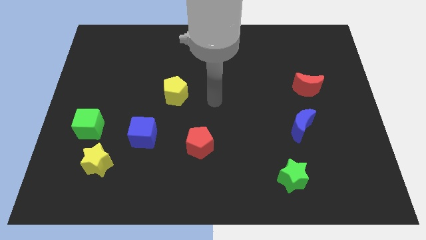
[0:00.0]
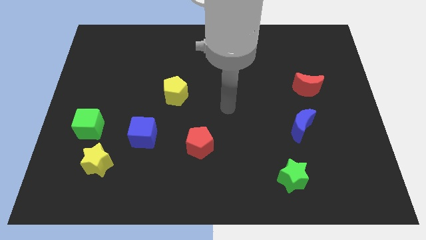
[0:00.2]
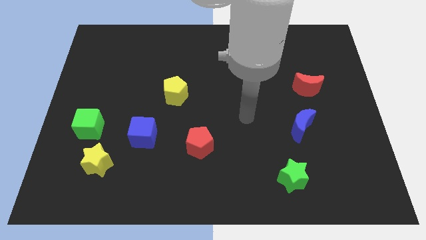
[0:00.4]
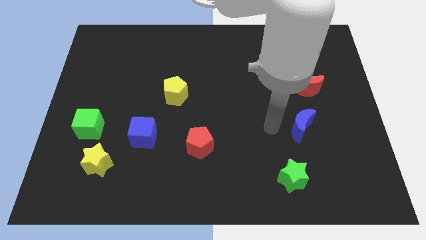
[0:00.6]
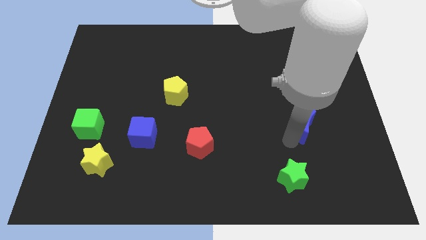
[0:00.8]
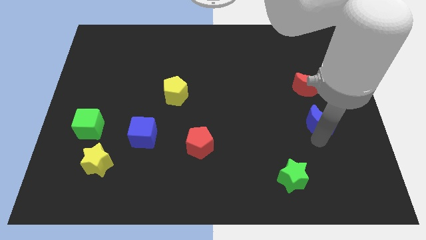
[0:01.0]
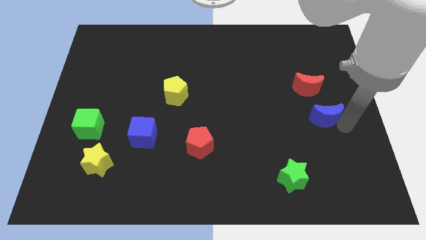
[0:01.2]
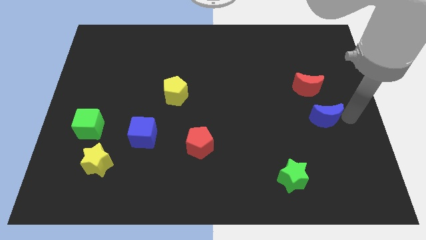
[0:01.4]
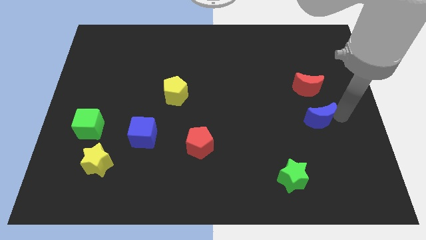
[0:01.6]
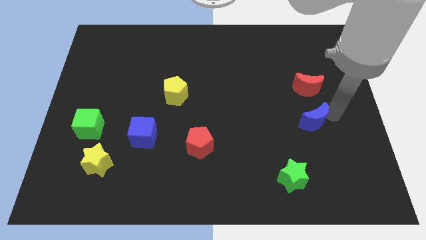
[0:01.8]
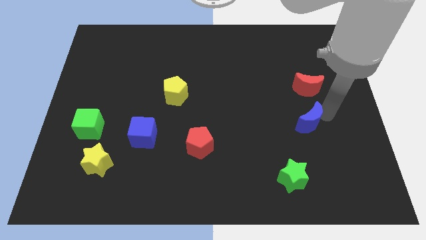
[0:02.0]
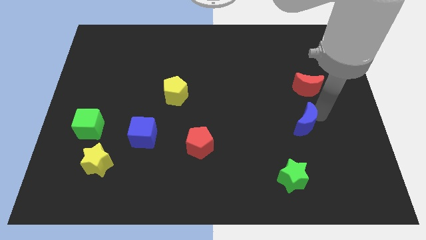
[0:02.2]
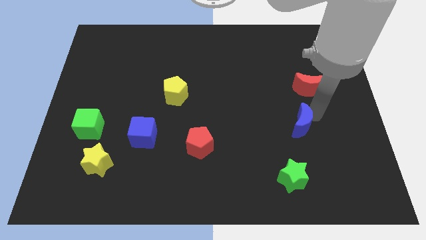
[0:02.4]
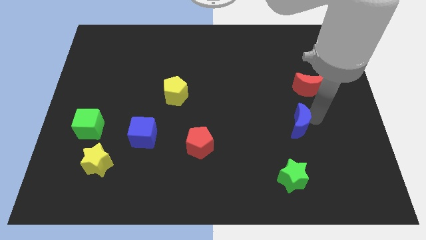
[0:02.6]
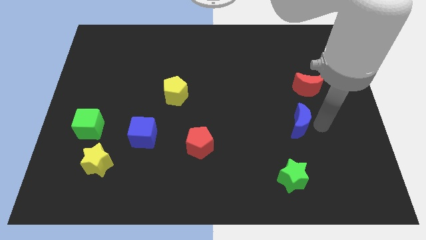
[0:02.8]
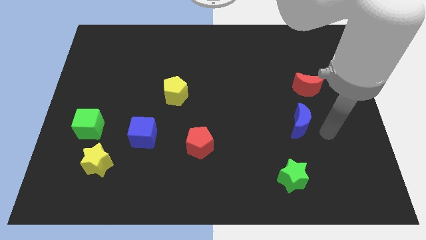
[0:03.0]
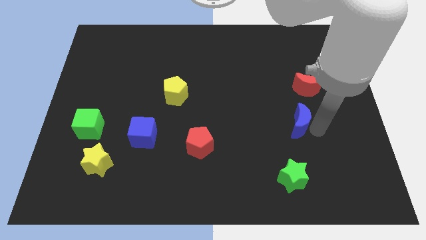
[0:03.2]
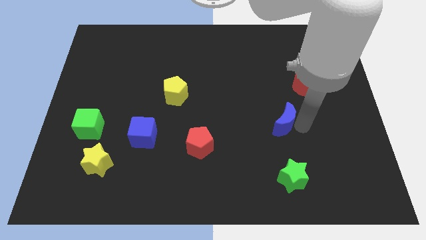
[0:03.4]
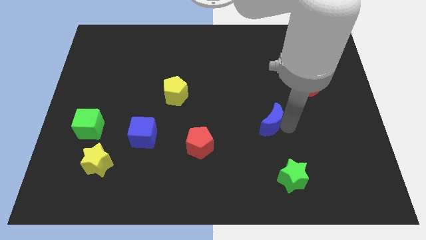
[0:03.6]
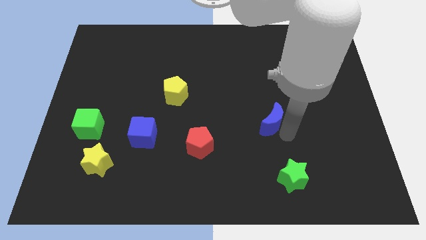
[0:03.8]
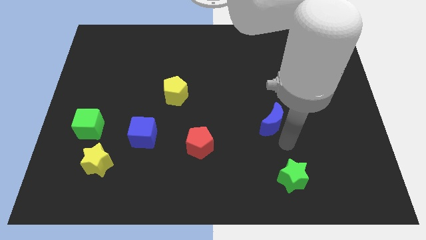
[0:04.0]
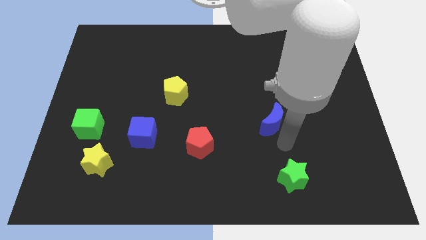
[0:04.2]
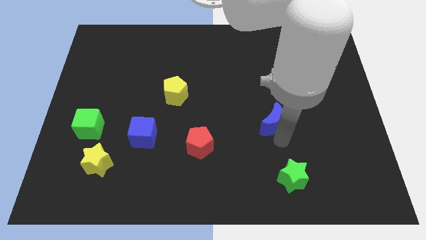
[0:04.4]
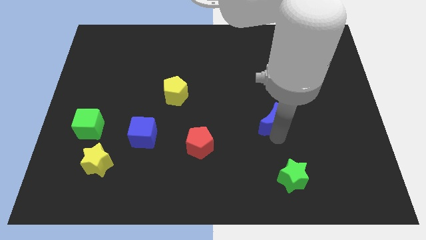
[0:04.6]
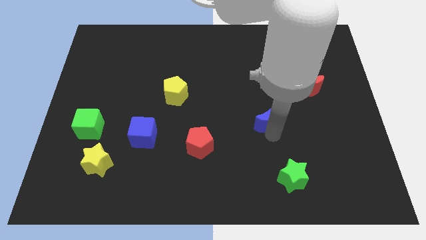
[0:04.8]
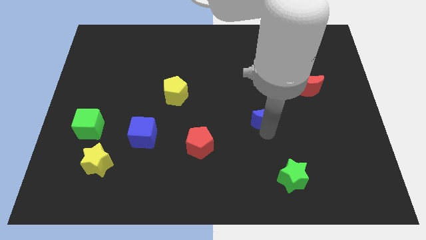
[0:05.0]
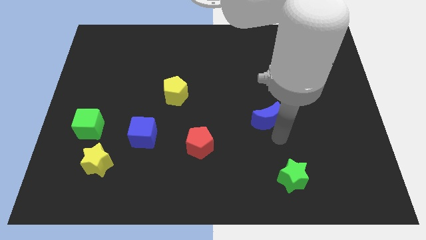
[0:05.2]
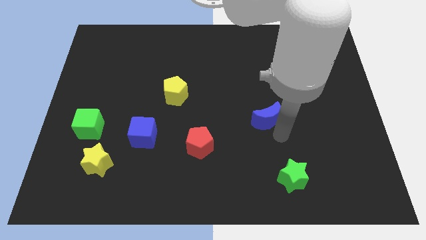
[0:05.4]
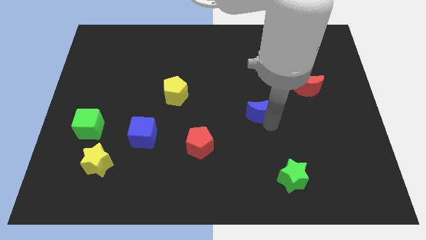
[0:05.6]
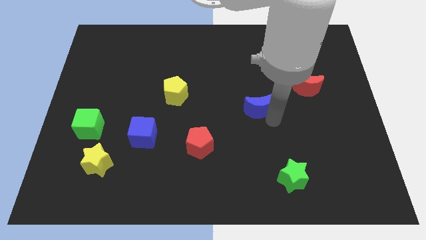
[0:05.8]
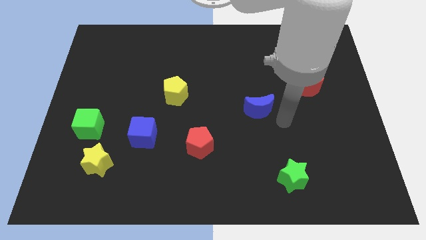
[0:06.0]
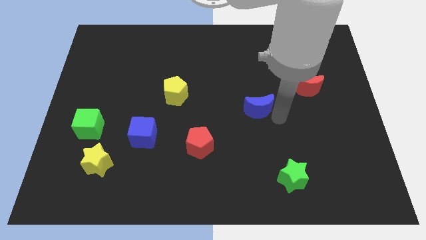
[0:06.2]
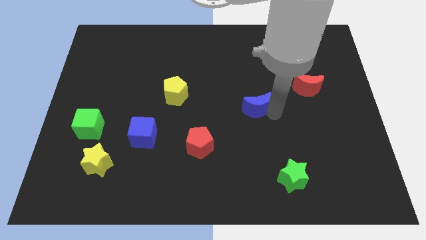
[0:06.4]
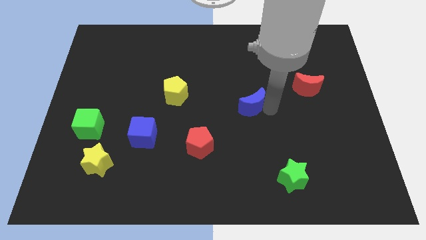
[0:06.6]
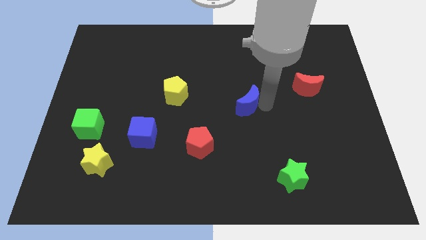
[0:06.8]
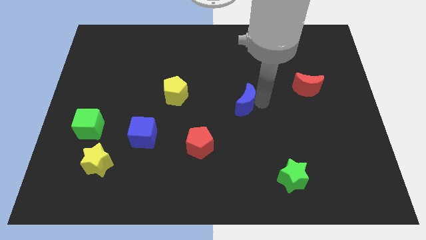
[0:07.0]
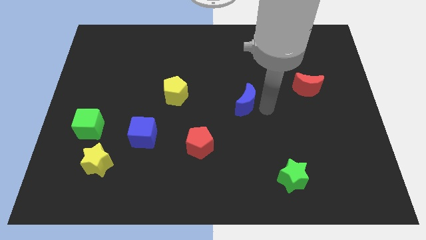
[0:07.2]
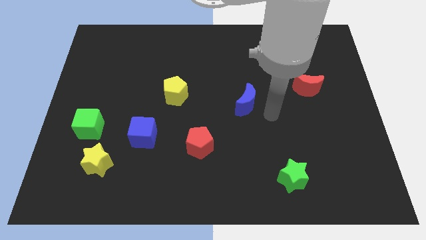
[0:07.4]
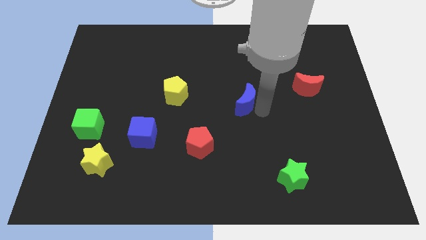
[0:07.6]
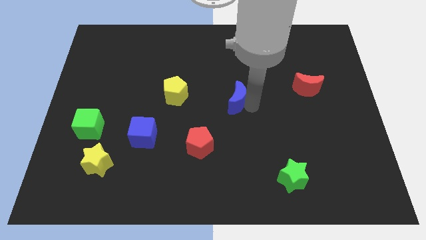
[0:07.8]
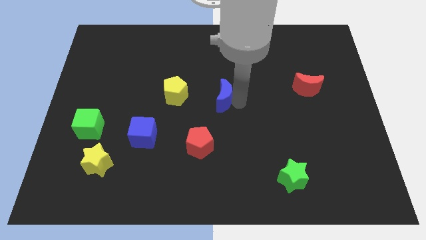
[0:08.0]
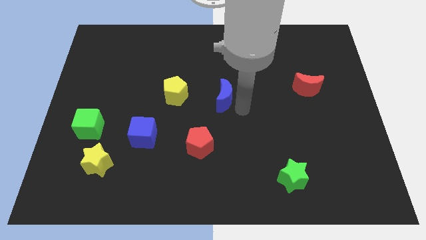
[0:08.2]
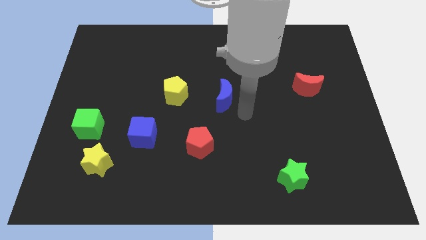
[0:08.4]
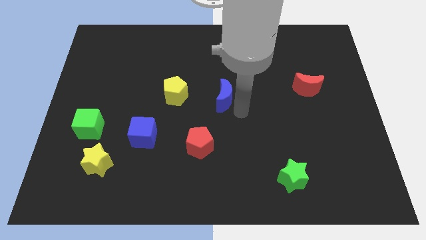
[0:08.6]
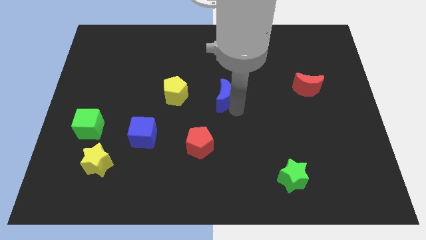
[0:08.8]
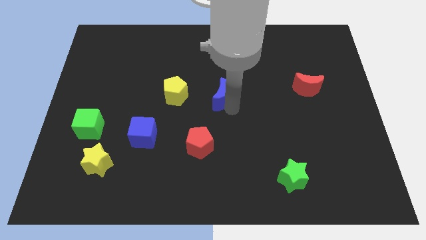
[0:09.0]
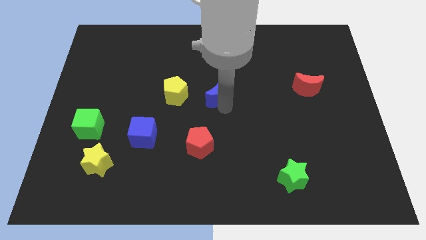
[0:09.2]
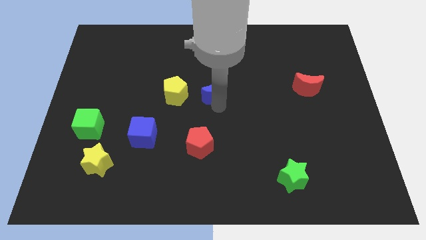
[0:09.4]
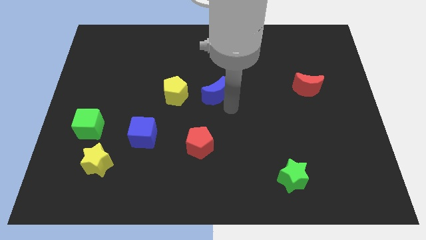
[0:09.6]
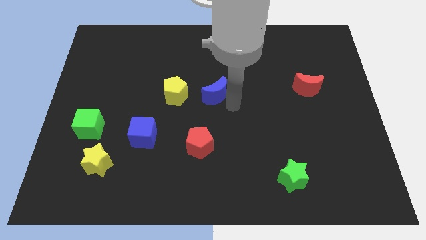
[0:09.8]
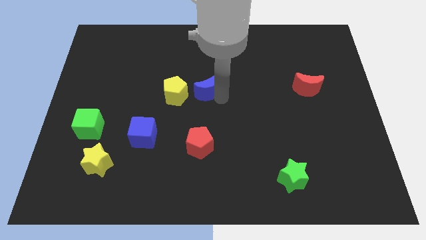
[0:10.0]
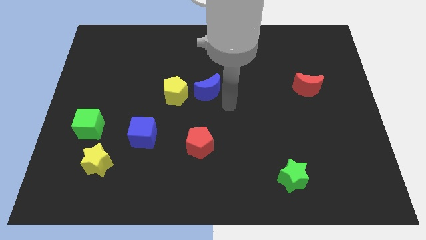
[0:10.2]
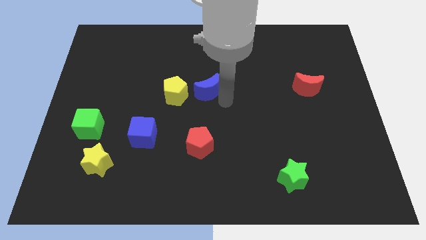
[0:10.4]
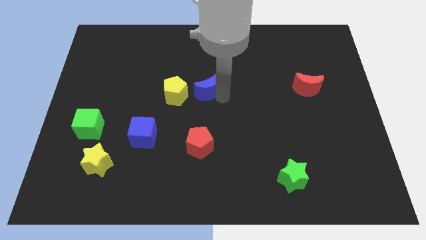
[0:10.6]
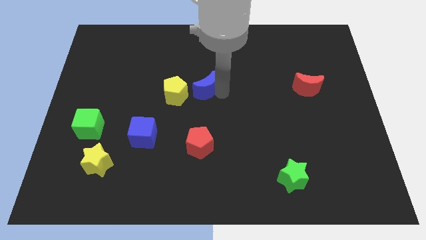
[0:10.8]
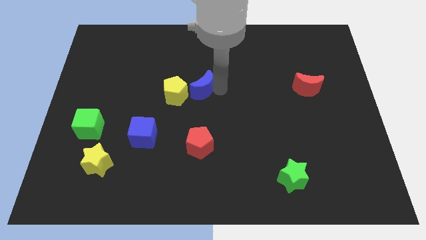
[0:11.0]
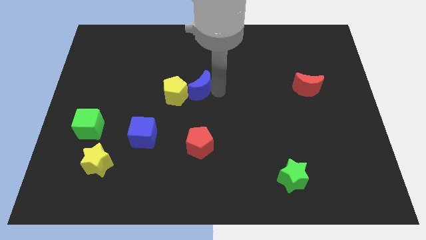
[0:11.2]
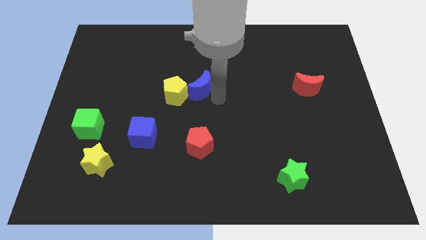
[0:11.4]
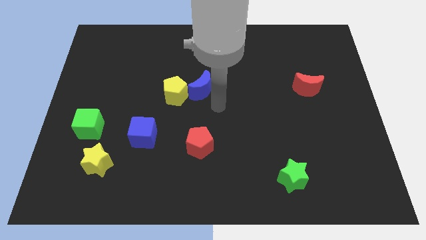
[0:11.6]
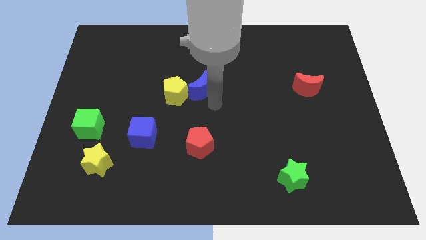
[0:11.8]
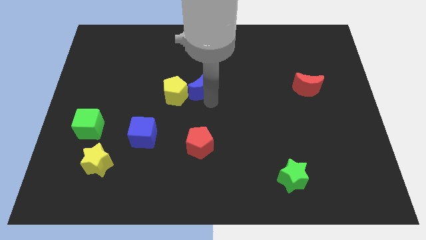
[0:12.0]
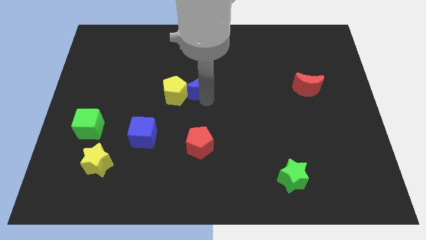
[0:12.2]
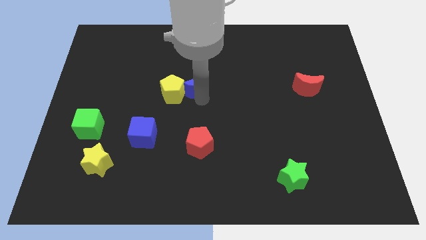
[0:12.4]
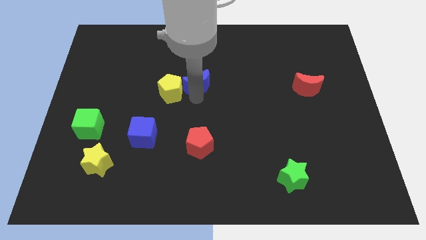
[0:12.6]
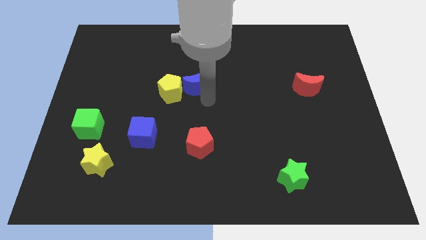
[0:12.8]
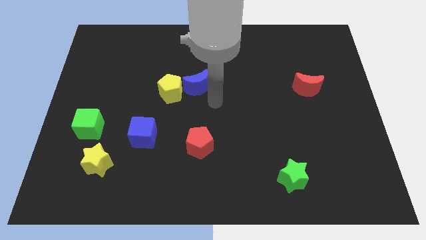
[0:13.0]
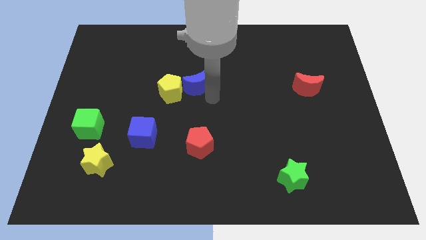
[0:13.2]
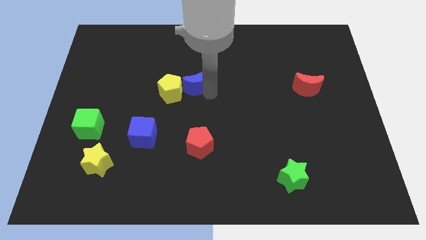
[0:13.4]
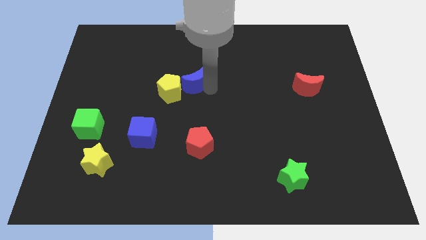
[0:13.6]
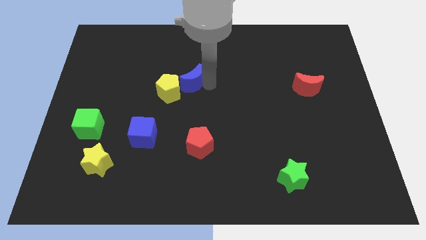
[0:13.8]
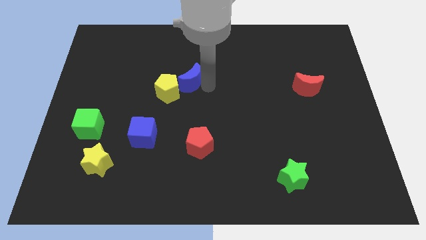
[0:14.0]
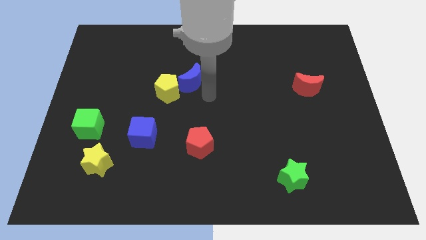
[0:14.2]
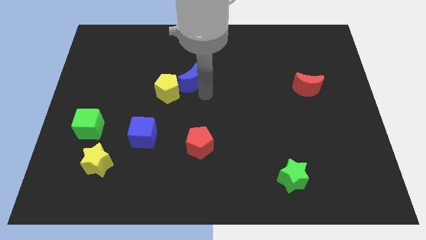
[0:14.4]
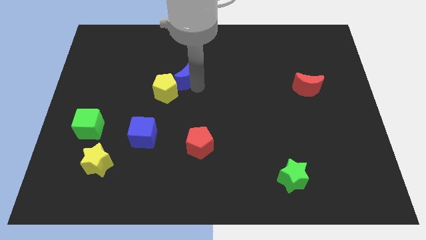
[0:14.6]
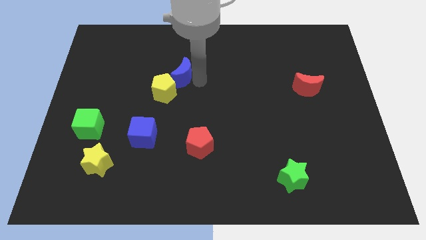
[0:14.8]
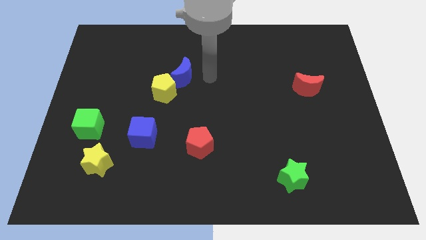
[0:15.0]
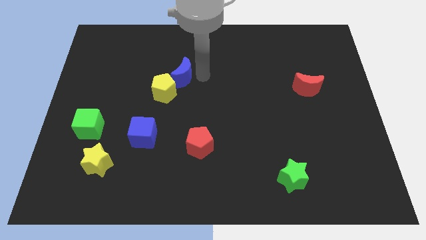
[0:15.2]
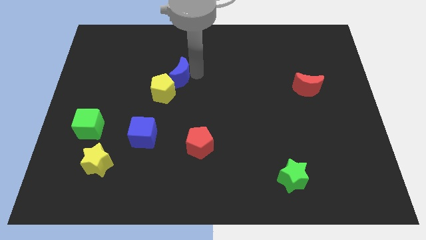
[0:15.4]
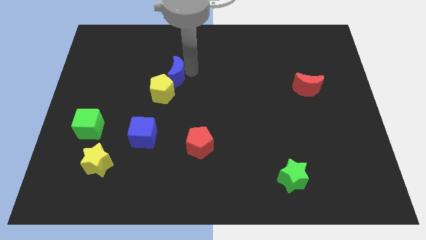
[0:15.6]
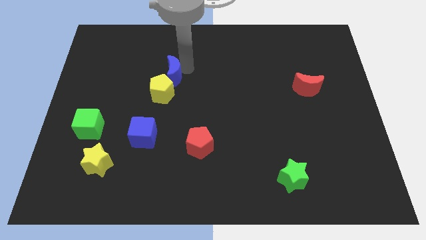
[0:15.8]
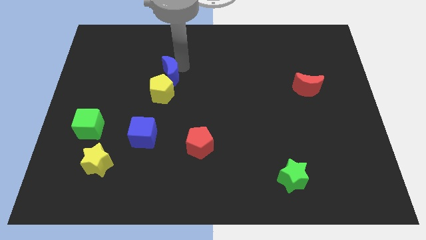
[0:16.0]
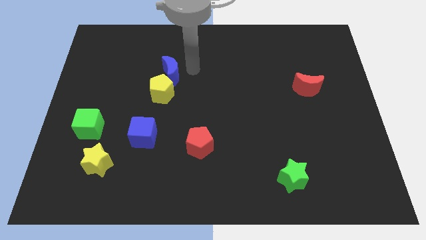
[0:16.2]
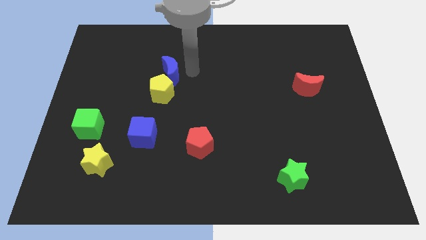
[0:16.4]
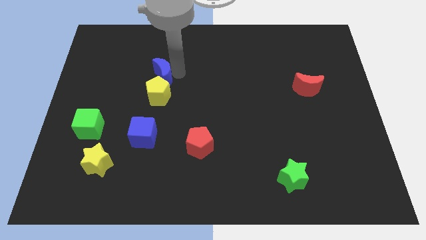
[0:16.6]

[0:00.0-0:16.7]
push the blue moon to the top left side of the yellow pentagon
